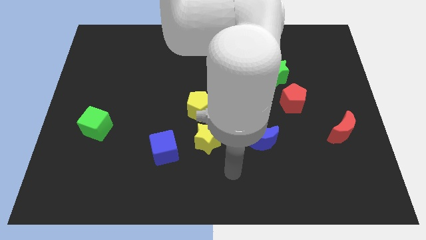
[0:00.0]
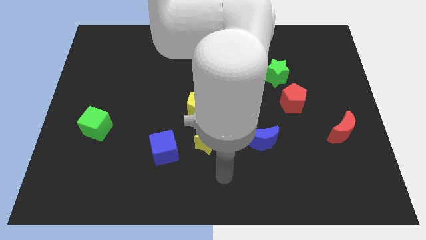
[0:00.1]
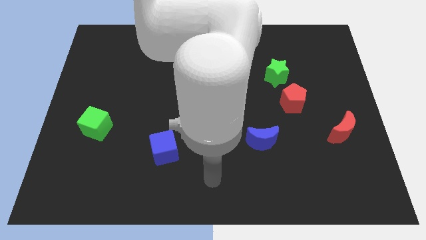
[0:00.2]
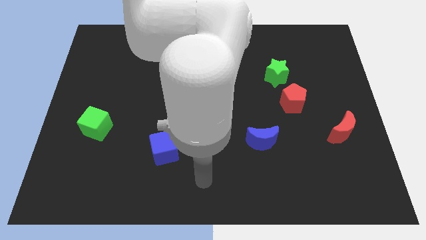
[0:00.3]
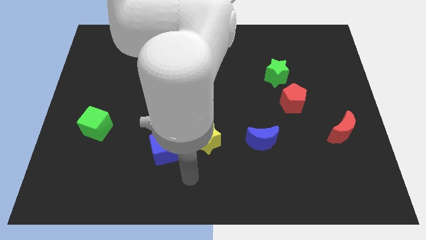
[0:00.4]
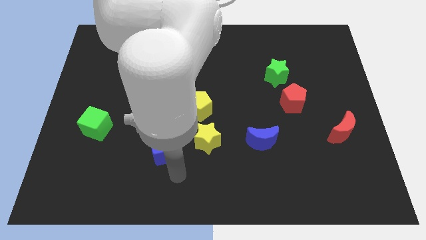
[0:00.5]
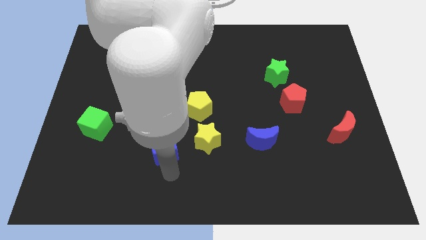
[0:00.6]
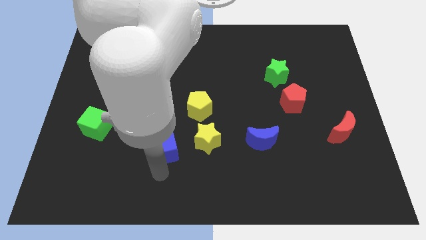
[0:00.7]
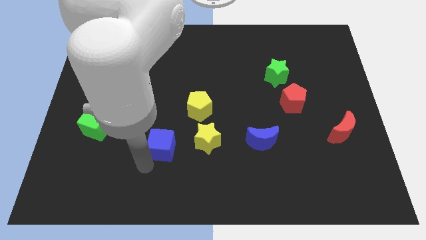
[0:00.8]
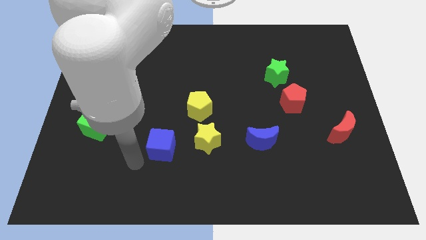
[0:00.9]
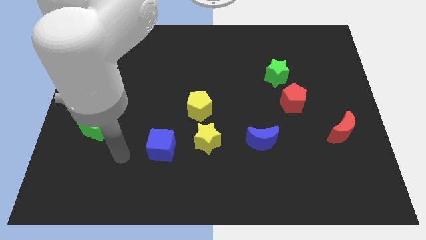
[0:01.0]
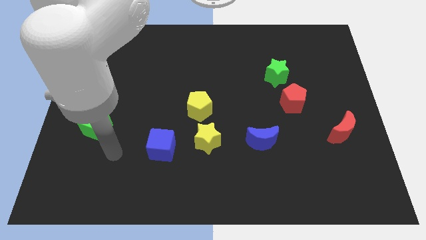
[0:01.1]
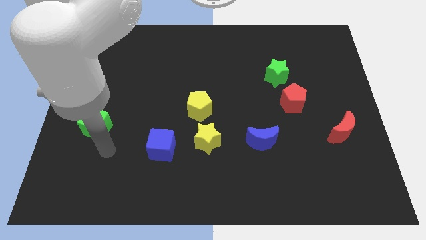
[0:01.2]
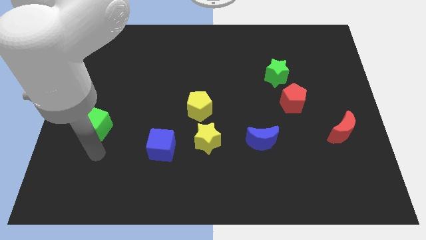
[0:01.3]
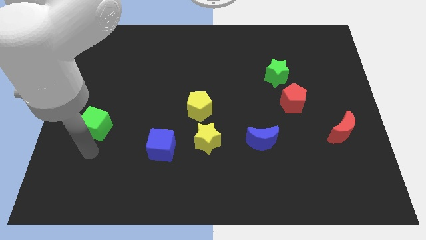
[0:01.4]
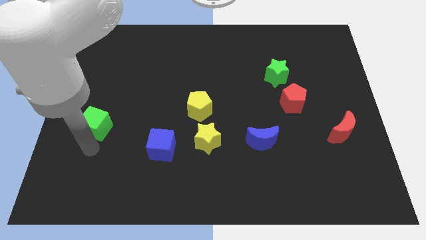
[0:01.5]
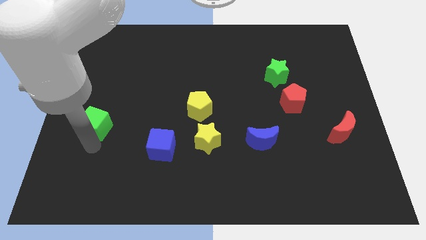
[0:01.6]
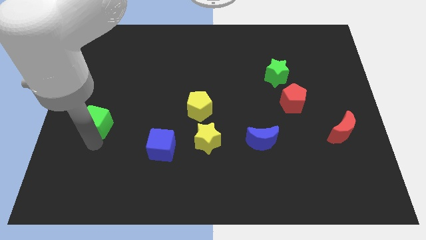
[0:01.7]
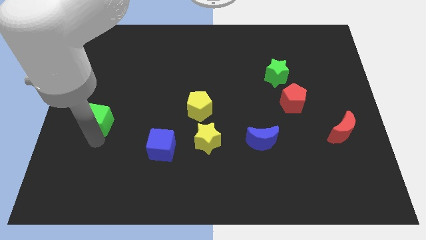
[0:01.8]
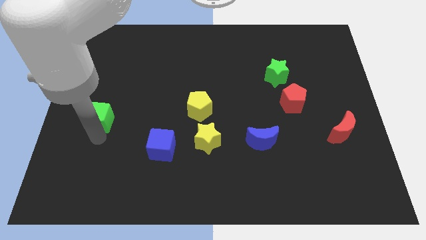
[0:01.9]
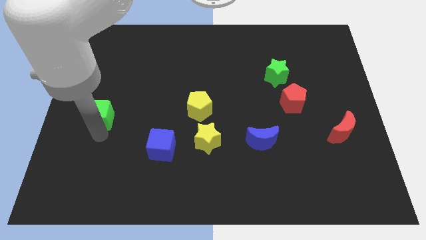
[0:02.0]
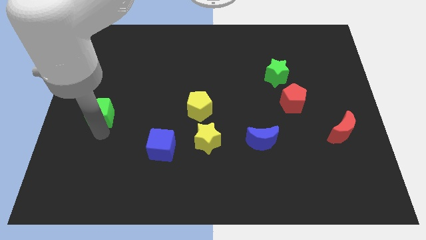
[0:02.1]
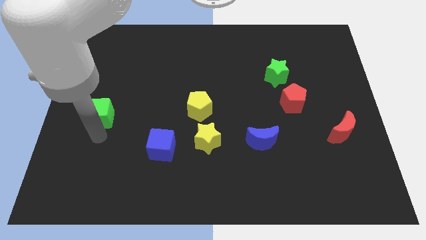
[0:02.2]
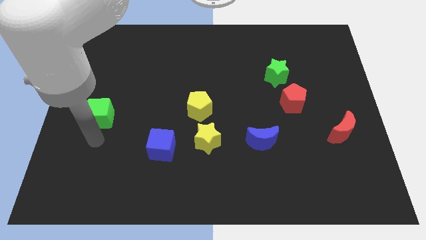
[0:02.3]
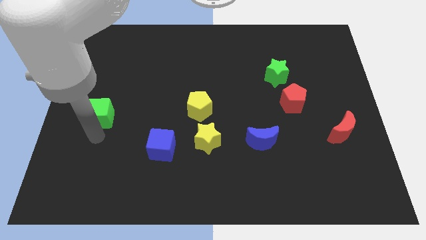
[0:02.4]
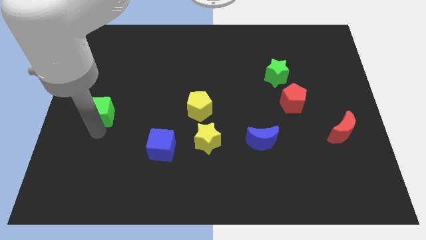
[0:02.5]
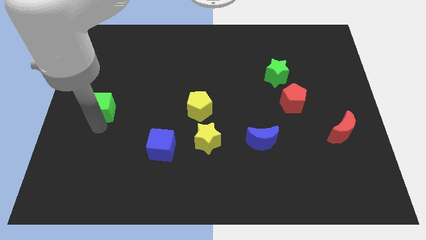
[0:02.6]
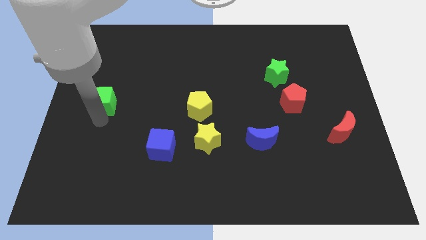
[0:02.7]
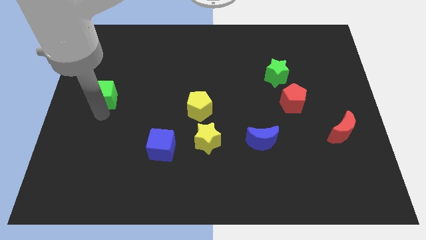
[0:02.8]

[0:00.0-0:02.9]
slide the green cube up slightly

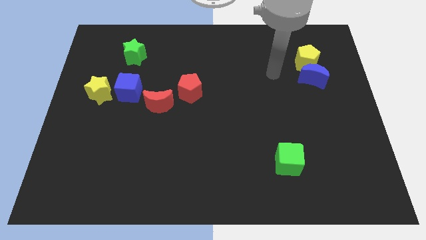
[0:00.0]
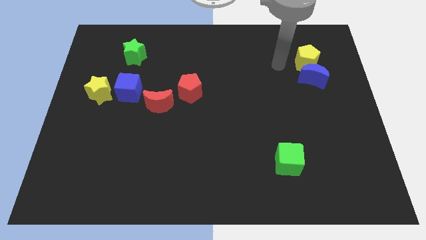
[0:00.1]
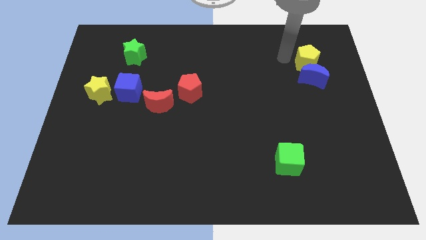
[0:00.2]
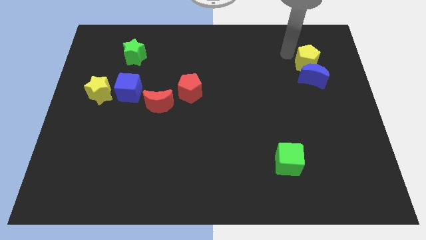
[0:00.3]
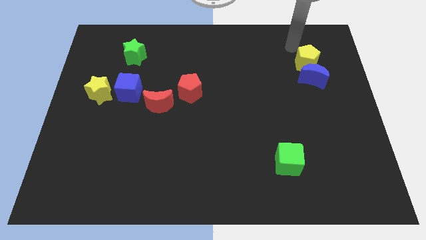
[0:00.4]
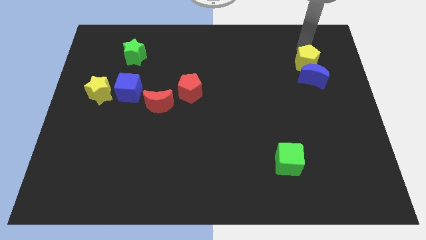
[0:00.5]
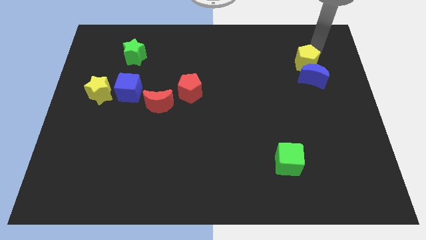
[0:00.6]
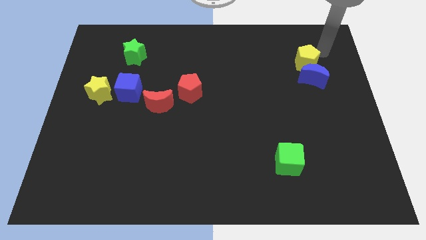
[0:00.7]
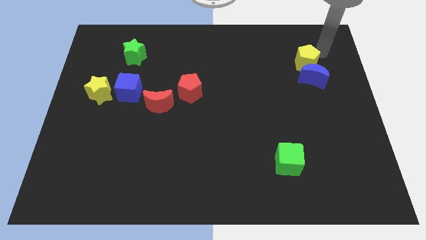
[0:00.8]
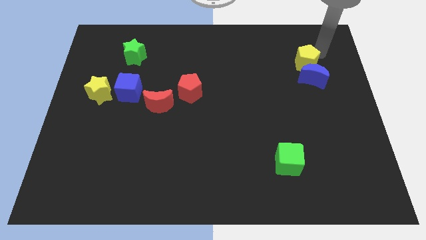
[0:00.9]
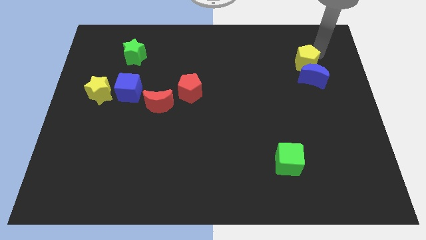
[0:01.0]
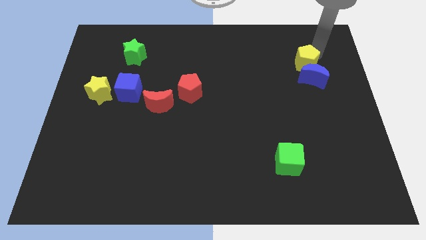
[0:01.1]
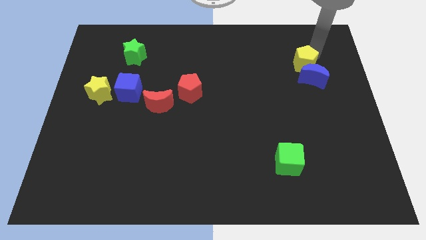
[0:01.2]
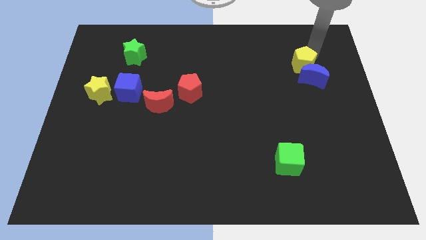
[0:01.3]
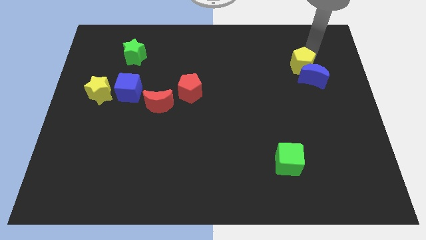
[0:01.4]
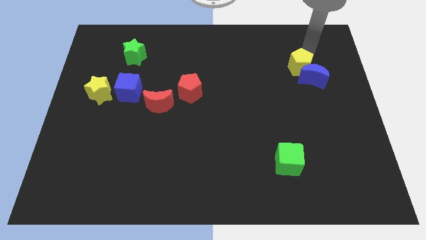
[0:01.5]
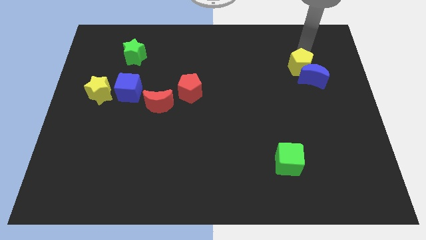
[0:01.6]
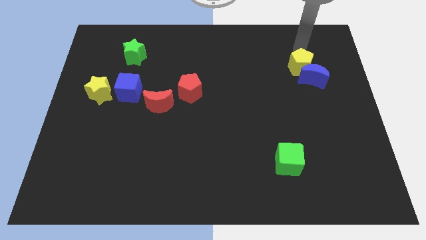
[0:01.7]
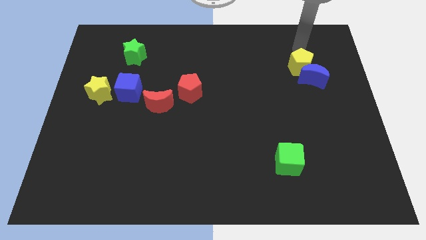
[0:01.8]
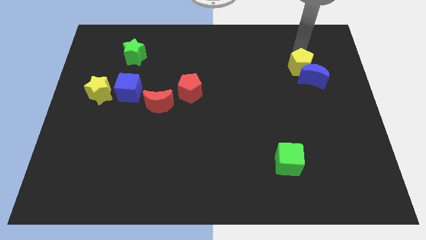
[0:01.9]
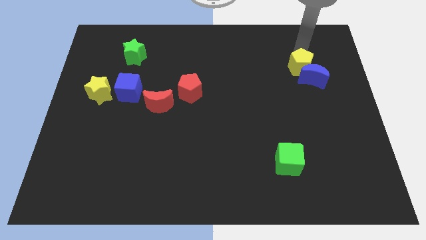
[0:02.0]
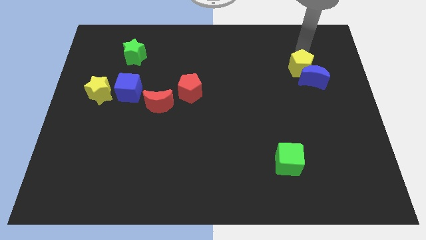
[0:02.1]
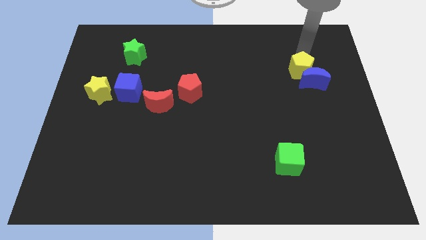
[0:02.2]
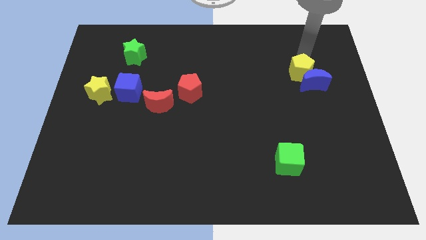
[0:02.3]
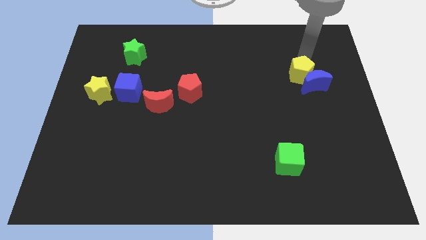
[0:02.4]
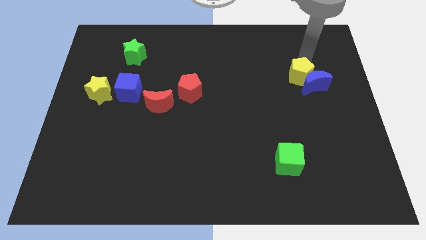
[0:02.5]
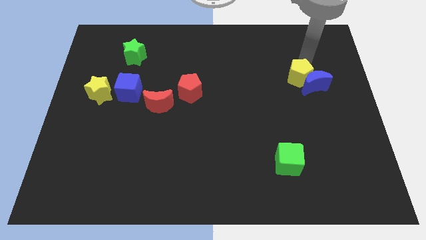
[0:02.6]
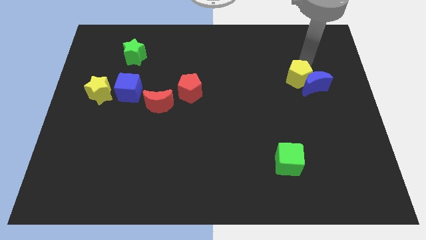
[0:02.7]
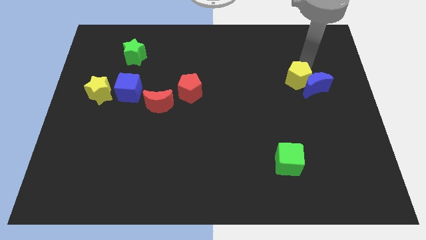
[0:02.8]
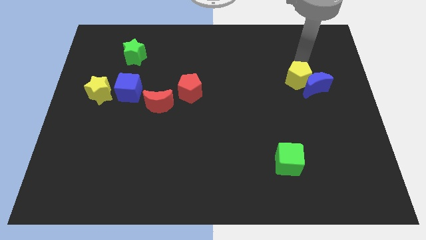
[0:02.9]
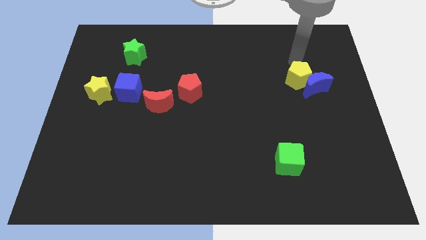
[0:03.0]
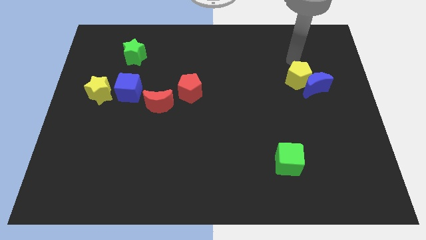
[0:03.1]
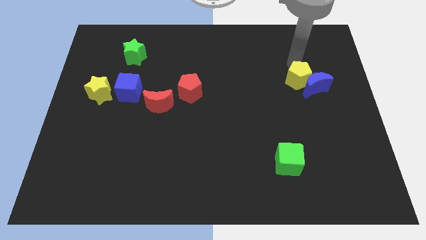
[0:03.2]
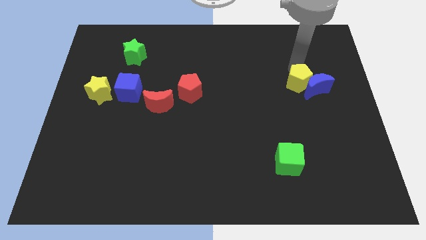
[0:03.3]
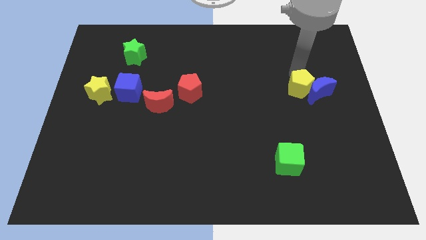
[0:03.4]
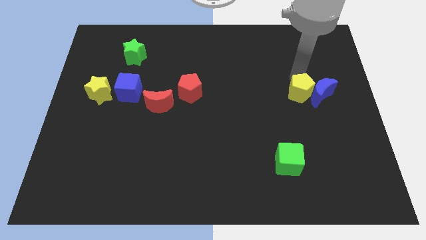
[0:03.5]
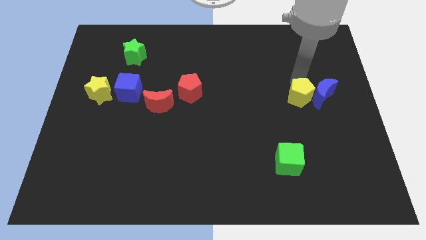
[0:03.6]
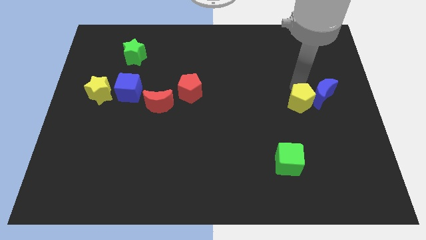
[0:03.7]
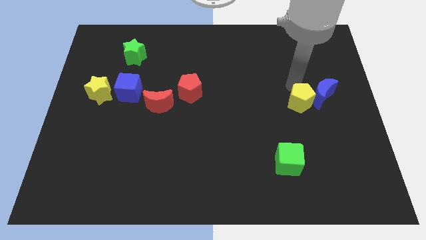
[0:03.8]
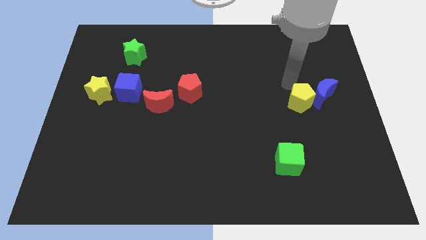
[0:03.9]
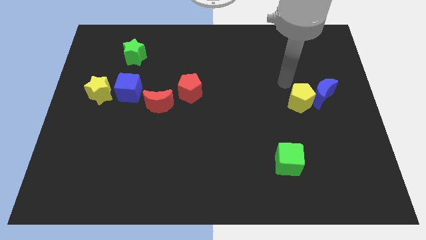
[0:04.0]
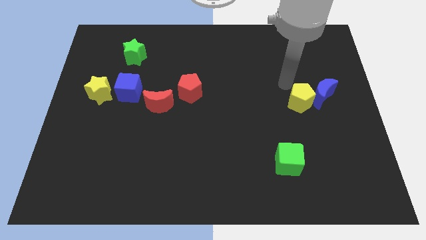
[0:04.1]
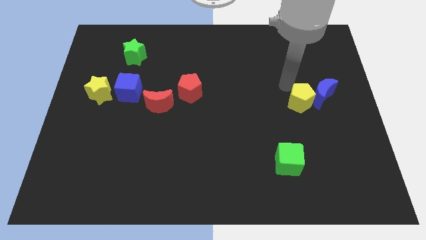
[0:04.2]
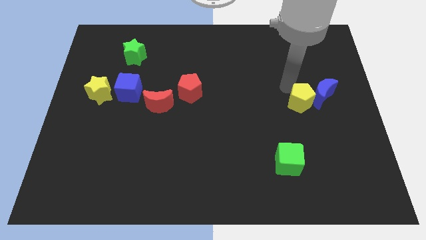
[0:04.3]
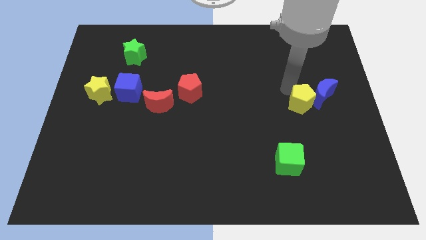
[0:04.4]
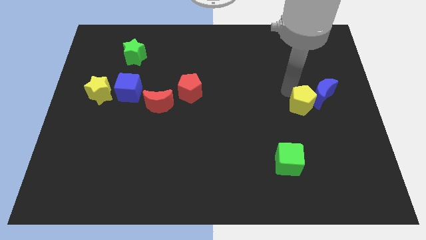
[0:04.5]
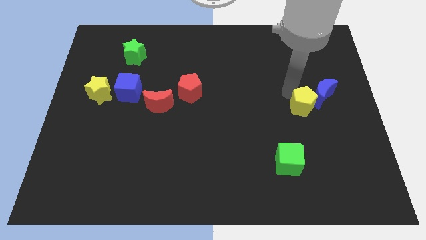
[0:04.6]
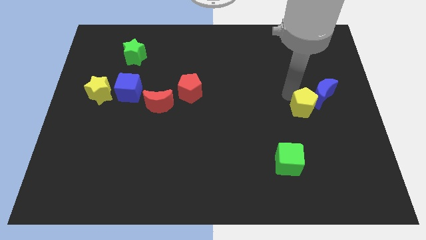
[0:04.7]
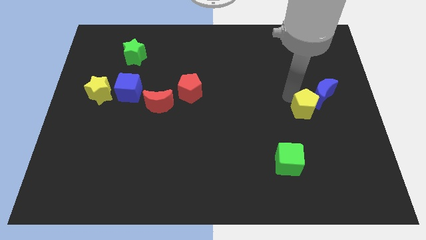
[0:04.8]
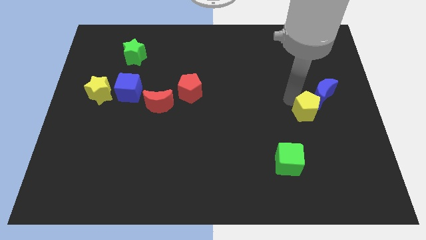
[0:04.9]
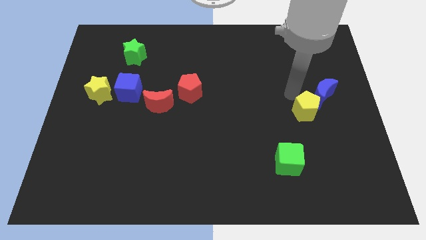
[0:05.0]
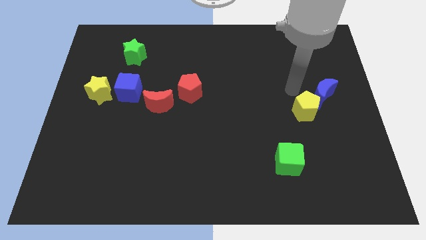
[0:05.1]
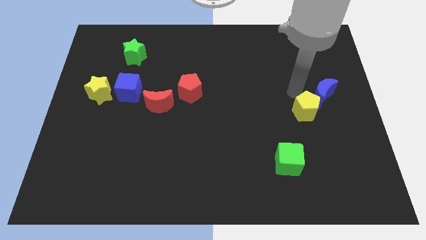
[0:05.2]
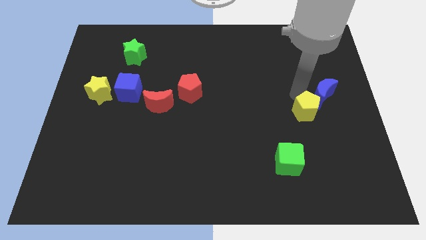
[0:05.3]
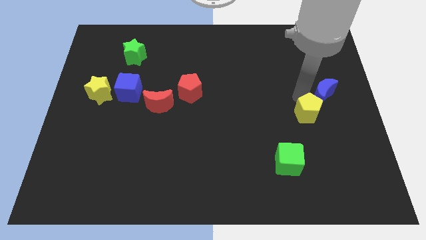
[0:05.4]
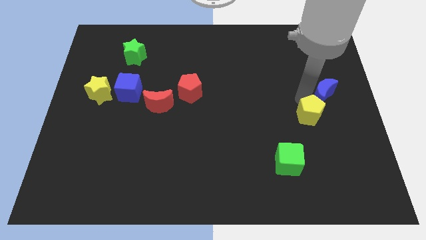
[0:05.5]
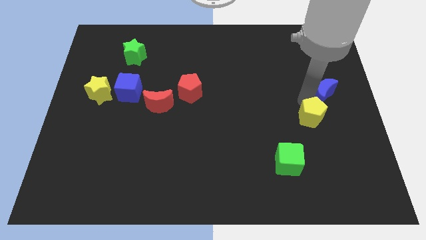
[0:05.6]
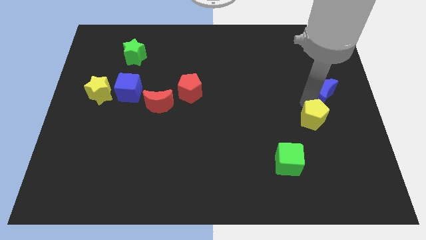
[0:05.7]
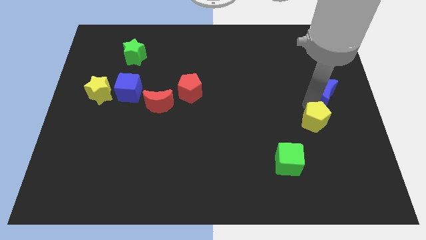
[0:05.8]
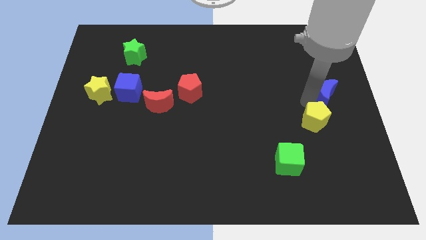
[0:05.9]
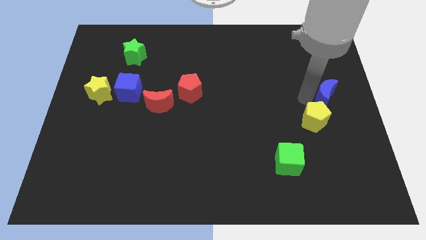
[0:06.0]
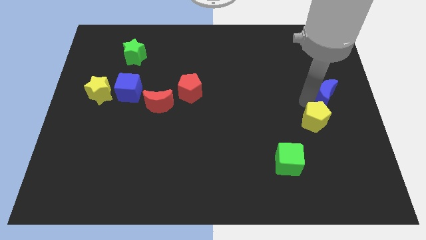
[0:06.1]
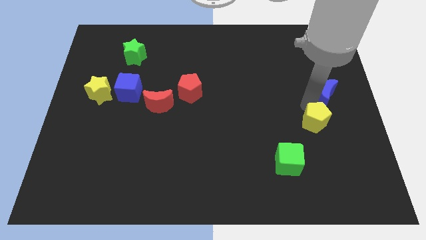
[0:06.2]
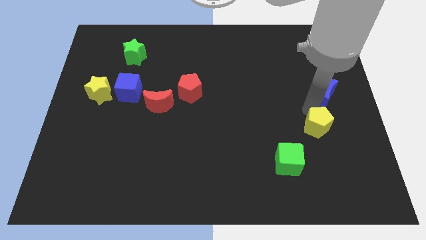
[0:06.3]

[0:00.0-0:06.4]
slide the yellow pentagon down
